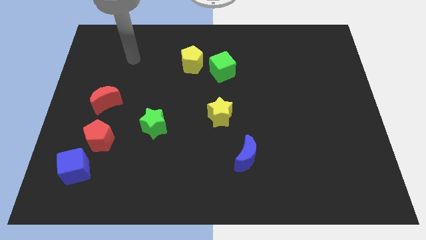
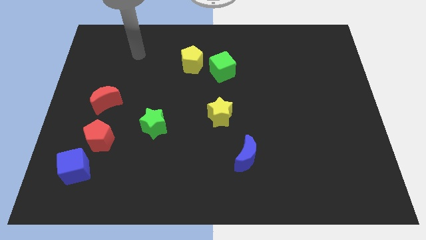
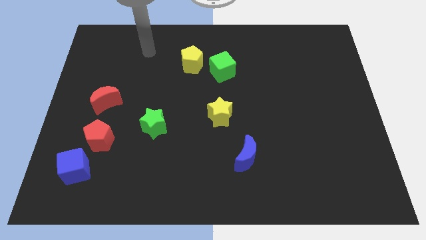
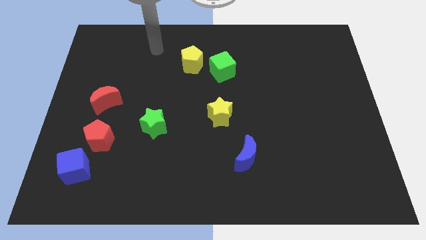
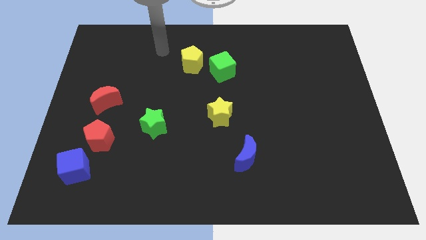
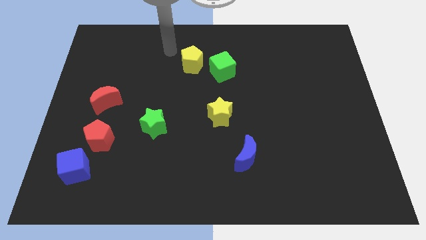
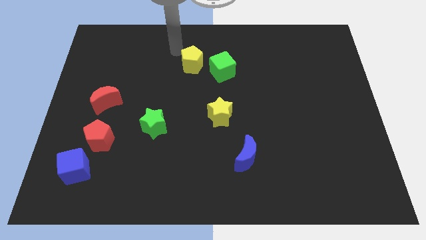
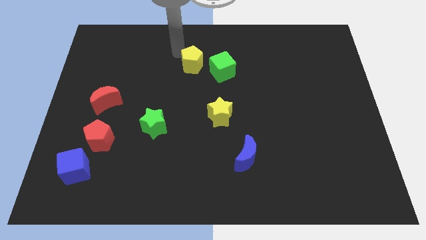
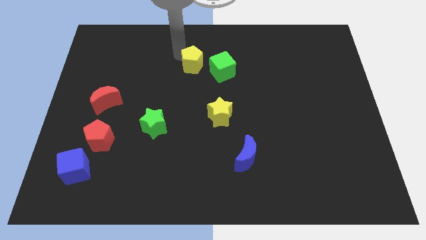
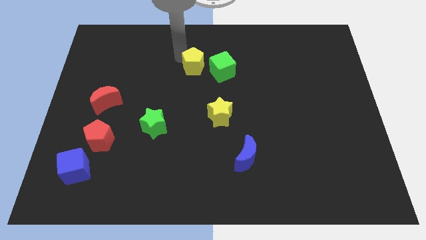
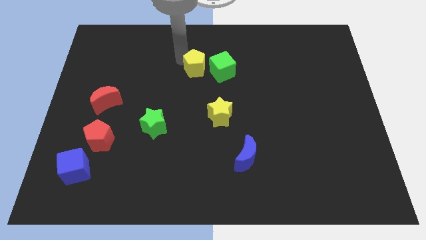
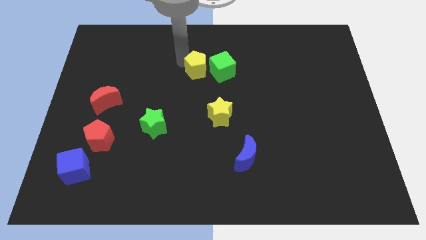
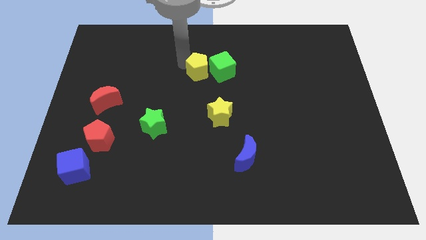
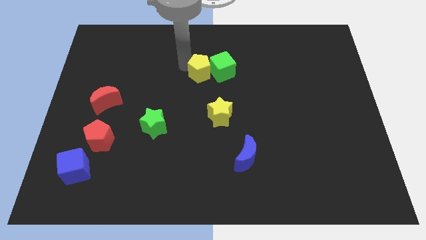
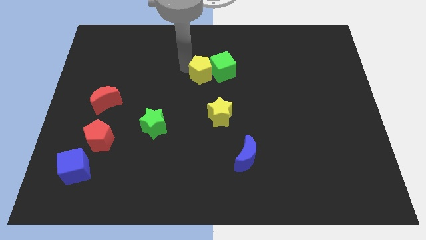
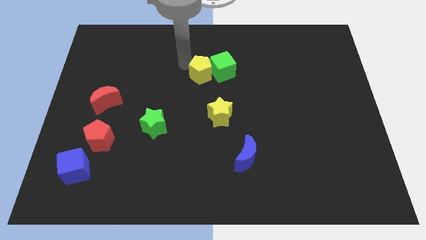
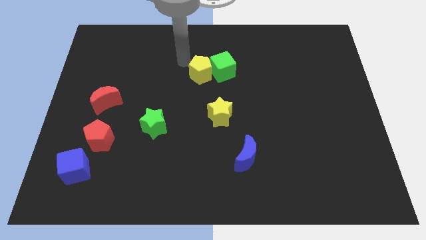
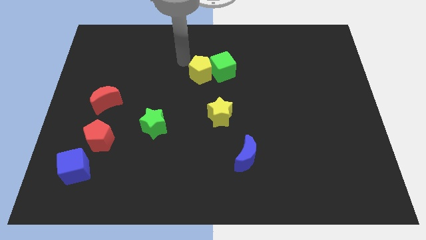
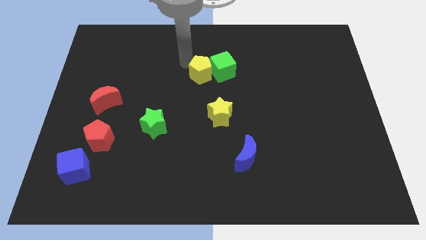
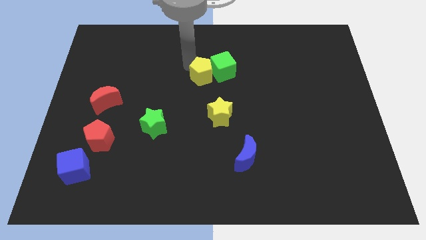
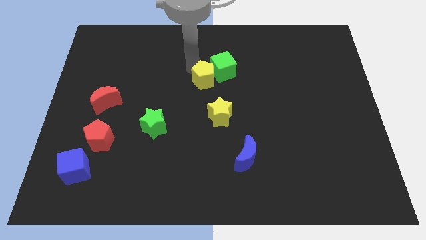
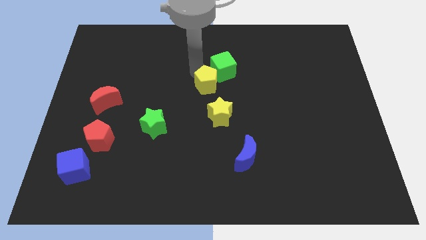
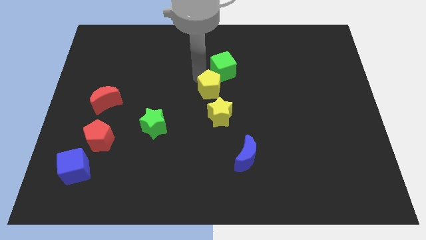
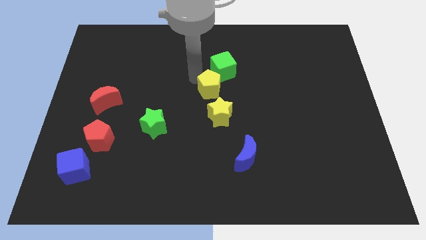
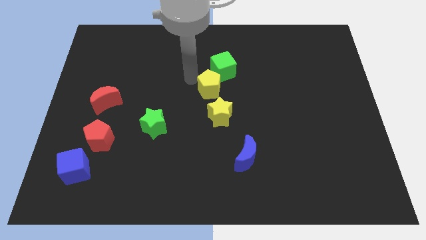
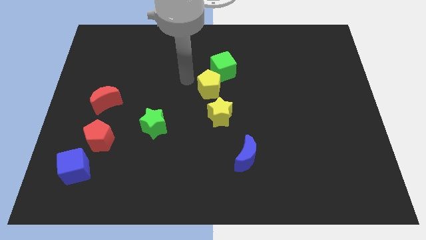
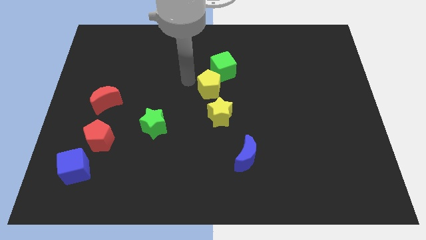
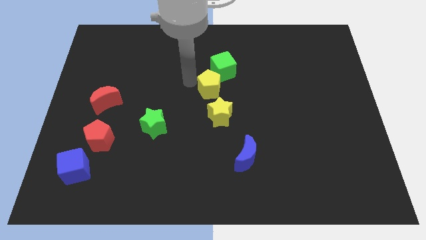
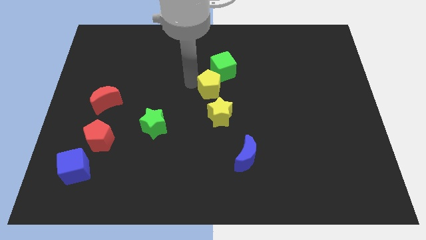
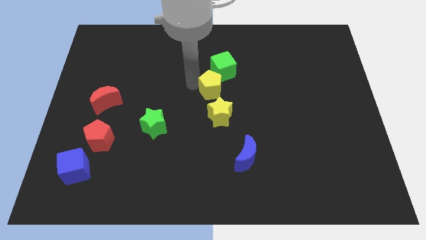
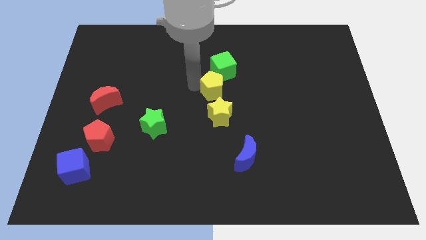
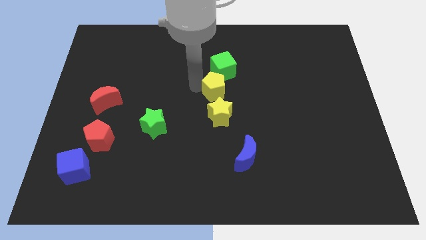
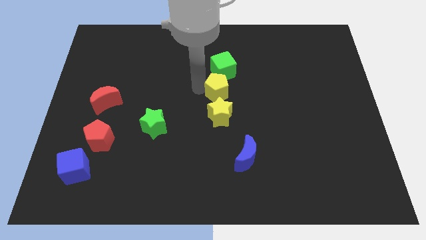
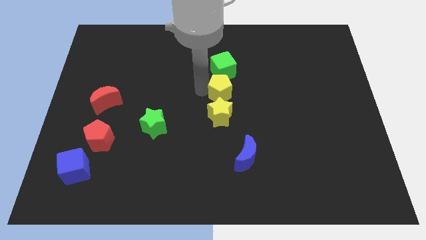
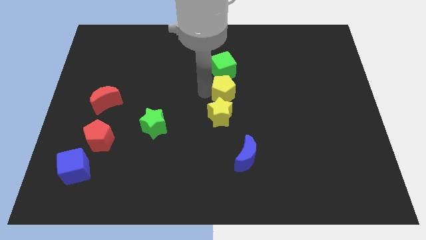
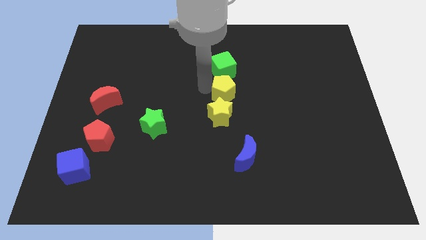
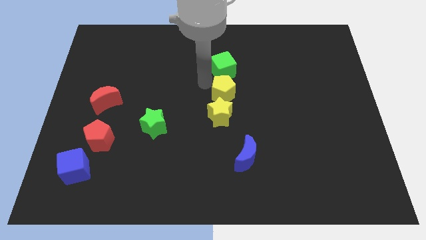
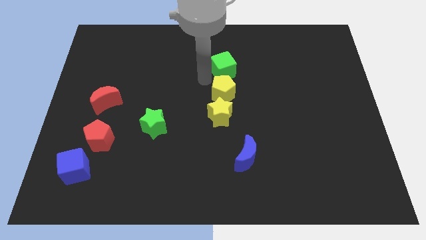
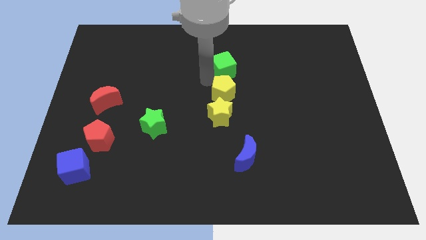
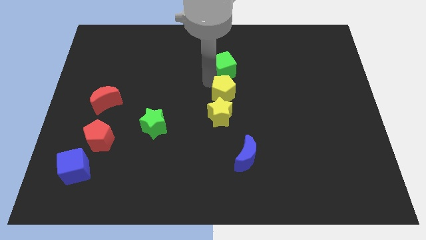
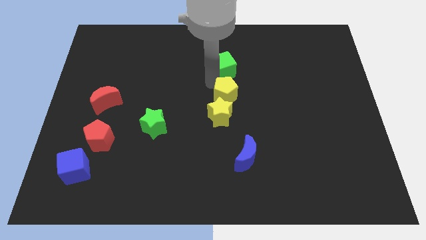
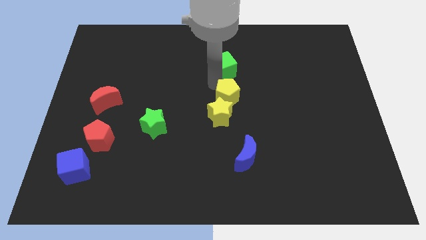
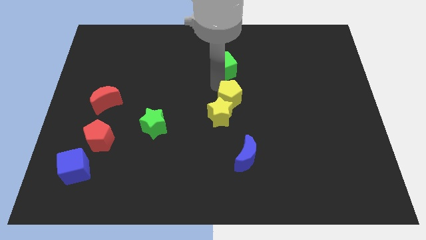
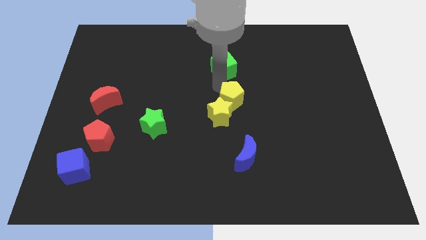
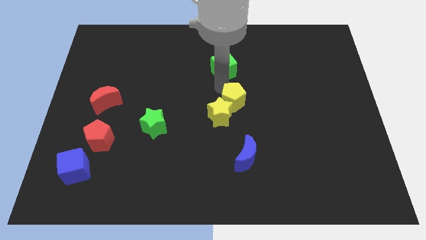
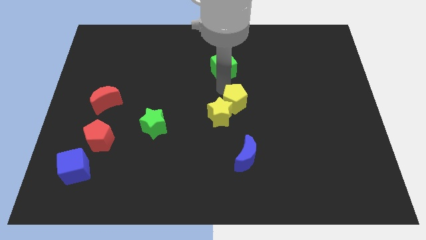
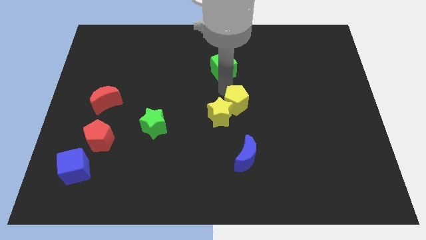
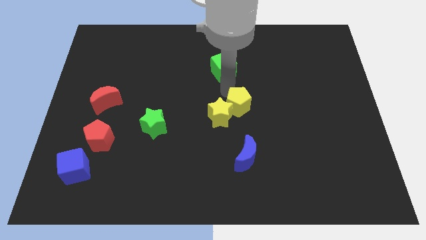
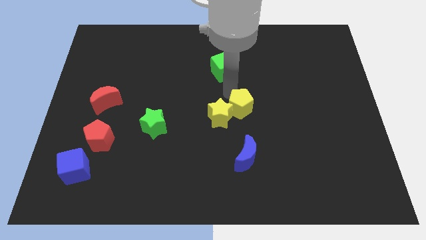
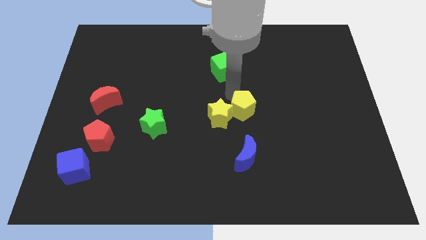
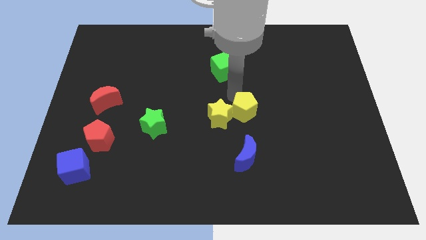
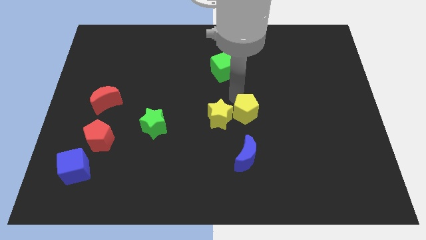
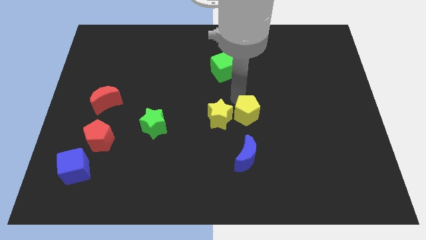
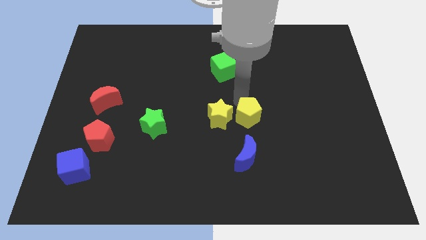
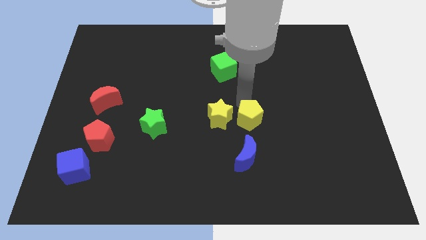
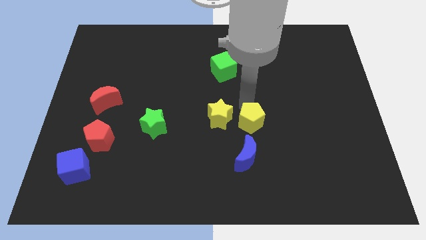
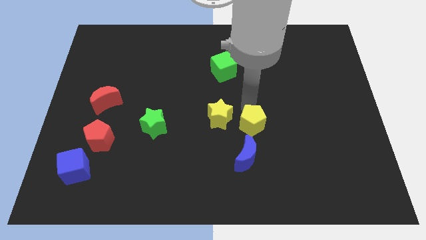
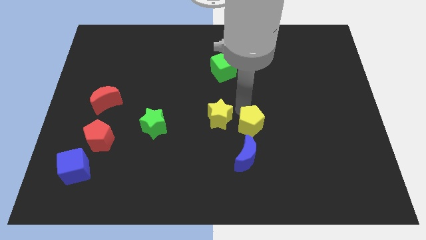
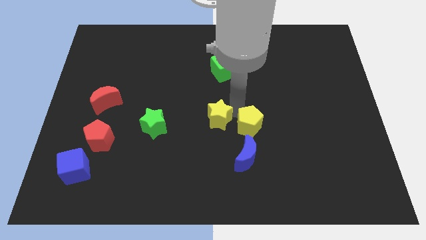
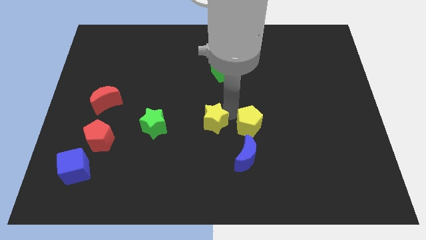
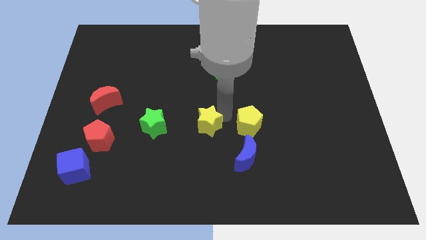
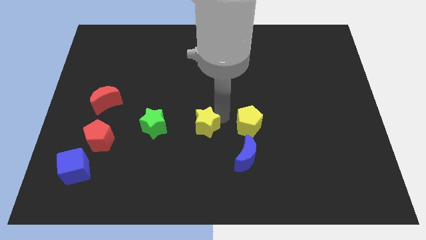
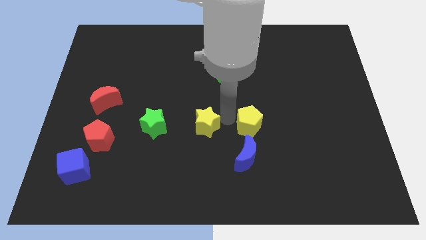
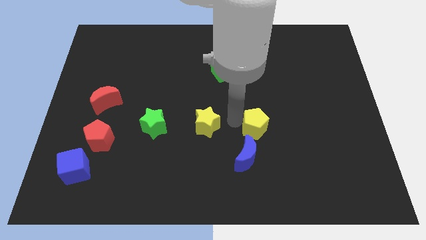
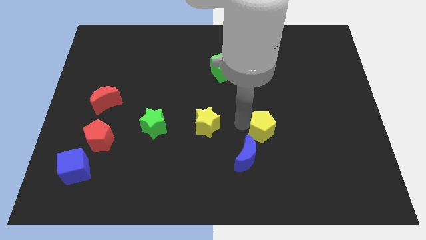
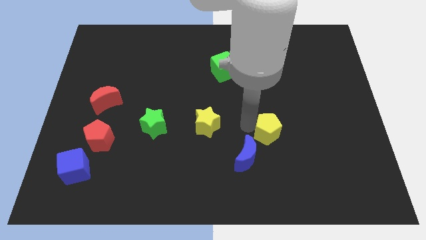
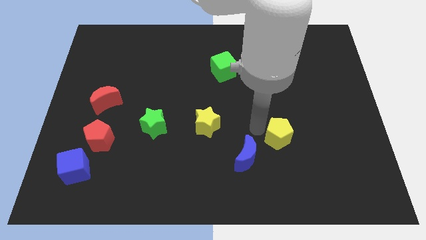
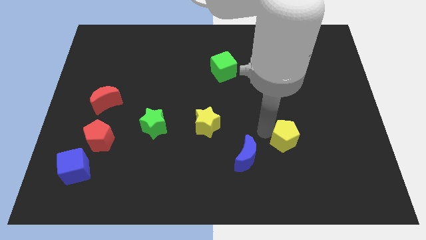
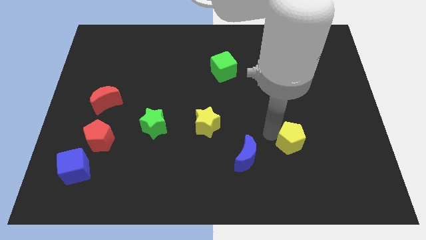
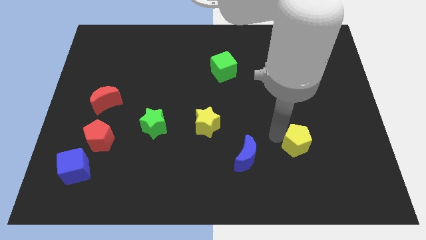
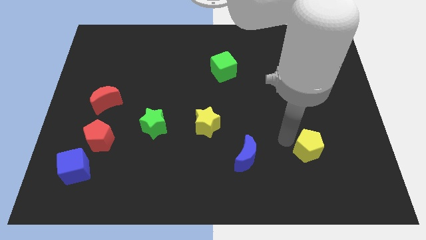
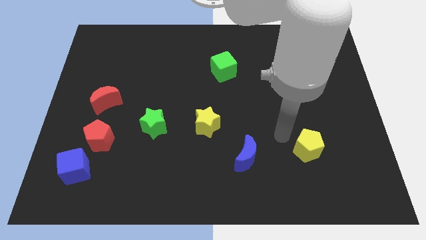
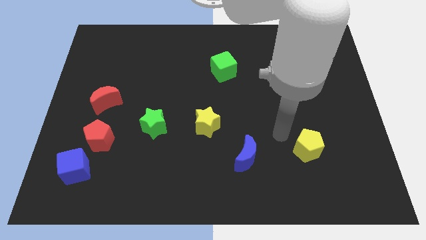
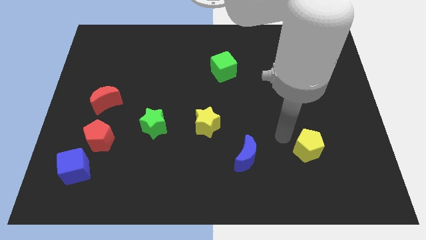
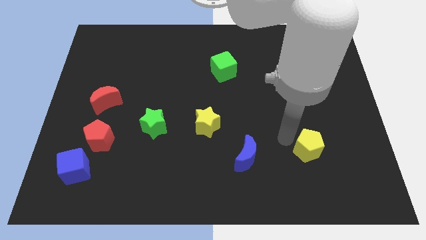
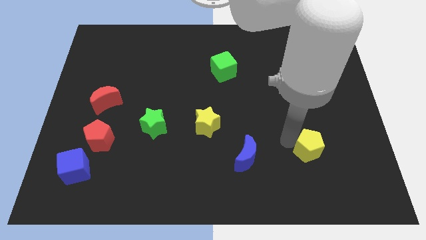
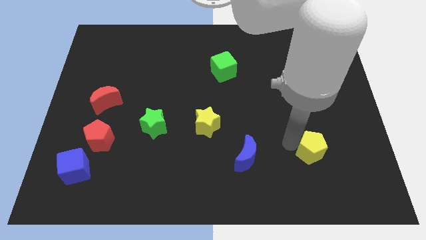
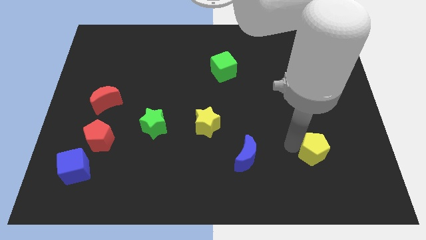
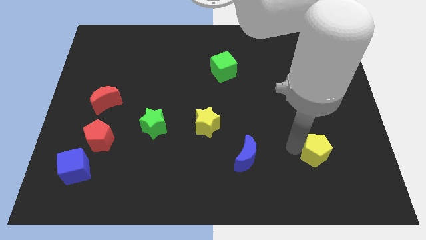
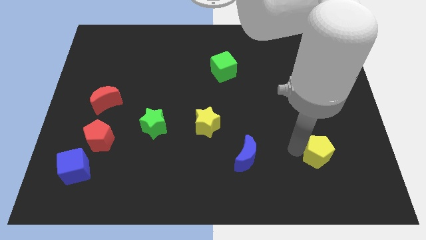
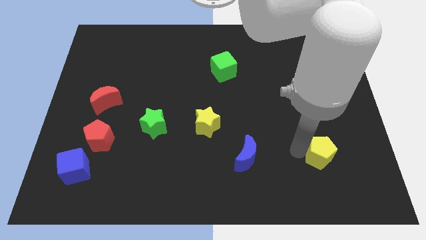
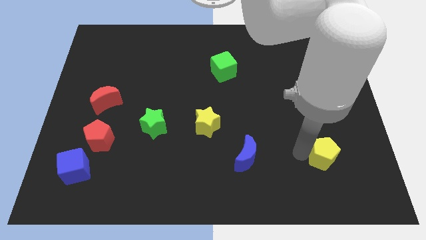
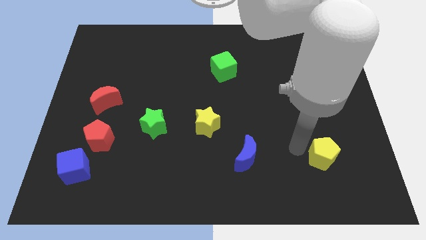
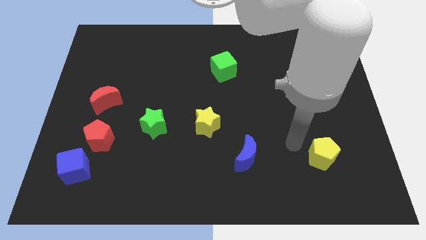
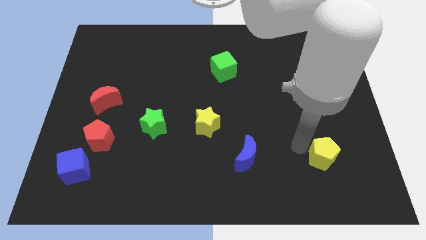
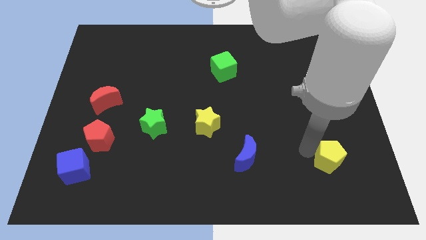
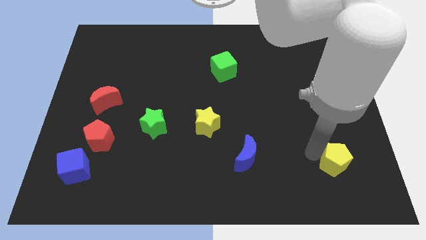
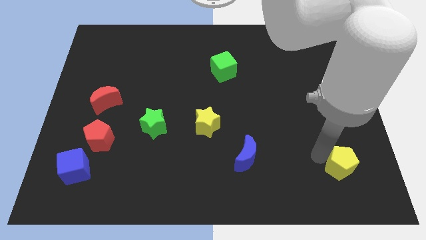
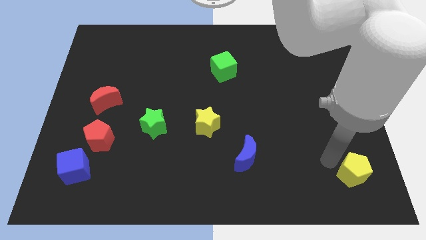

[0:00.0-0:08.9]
put the yellow pentagon to the lower right corner
